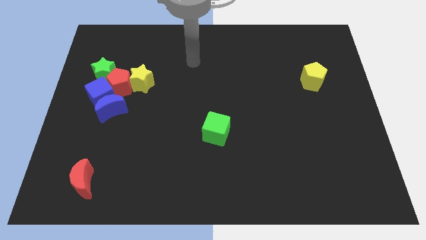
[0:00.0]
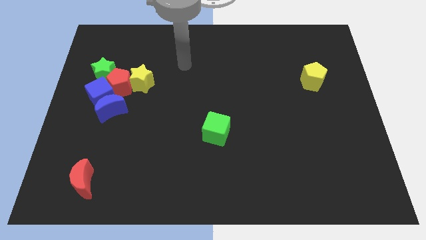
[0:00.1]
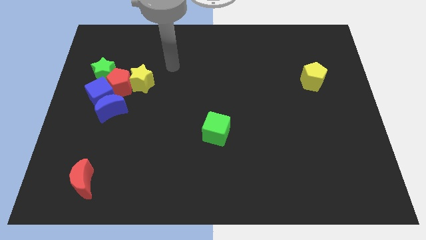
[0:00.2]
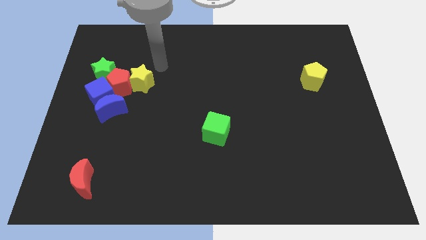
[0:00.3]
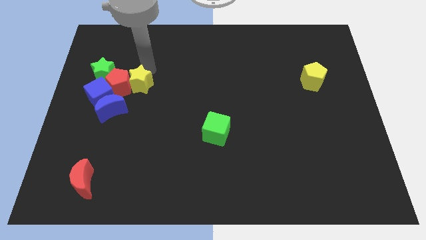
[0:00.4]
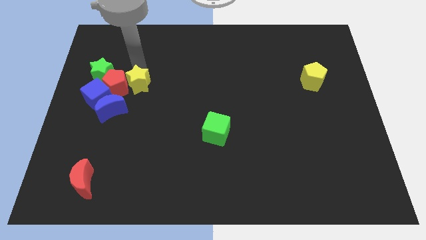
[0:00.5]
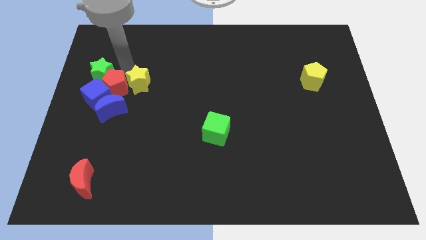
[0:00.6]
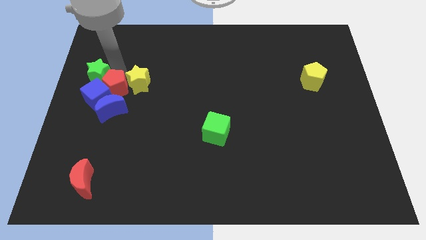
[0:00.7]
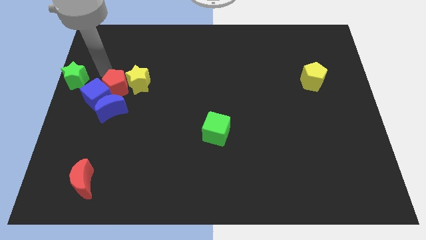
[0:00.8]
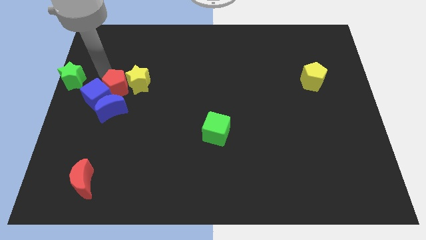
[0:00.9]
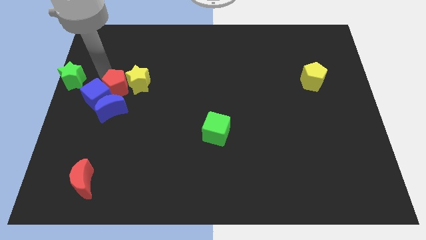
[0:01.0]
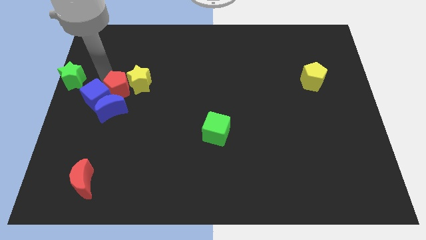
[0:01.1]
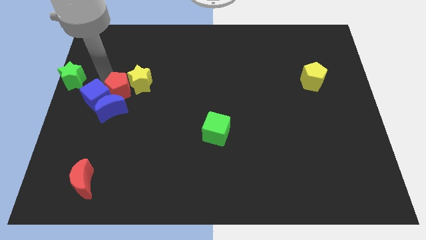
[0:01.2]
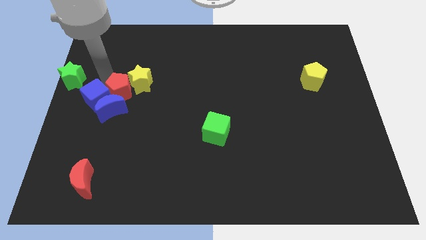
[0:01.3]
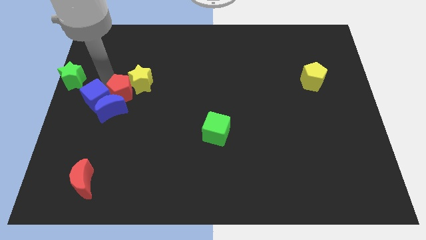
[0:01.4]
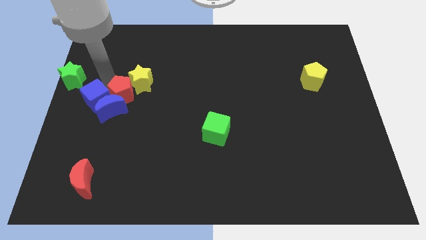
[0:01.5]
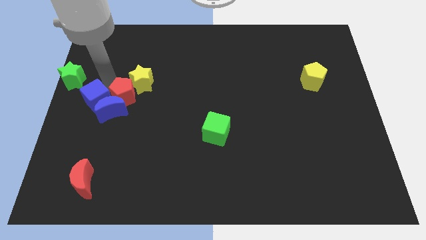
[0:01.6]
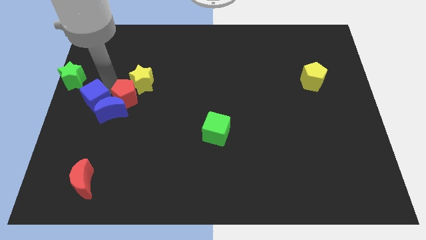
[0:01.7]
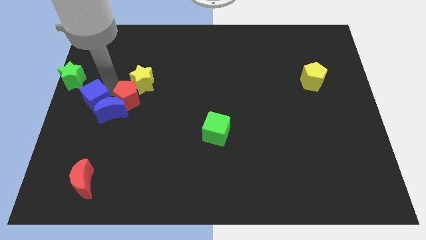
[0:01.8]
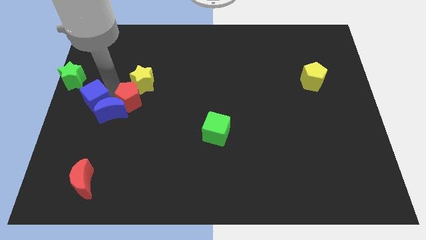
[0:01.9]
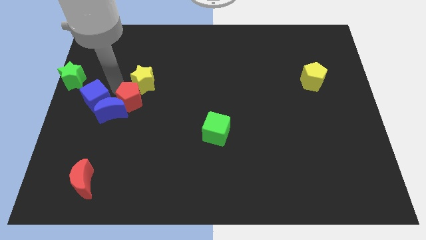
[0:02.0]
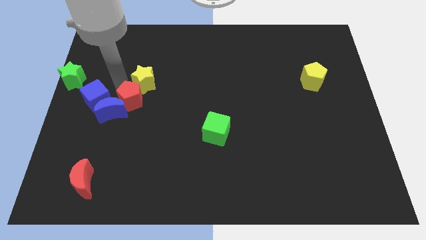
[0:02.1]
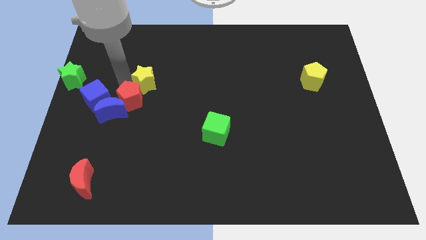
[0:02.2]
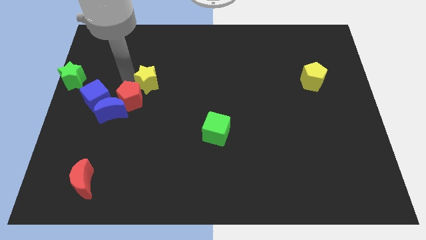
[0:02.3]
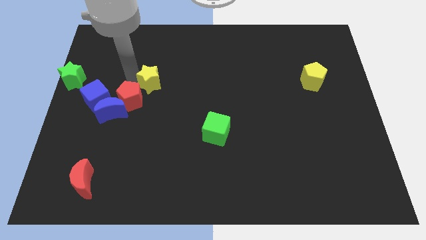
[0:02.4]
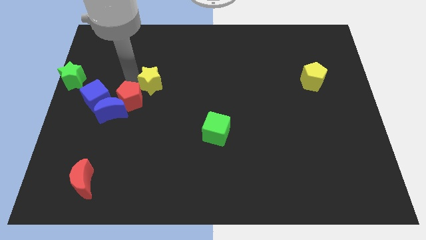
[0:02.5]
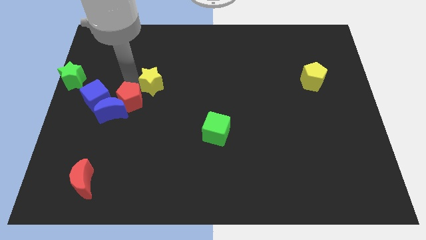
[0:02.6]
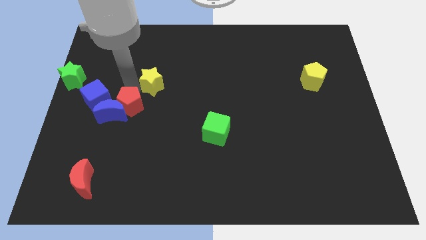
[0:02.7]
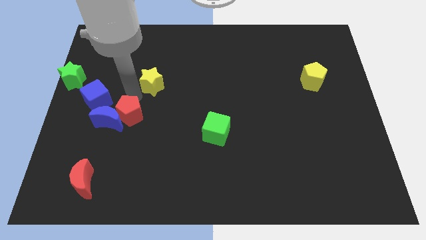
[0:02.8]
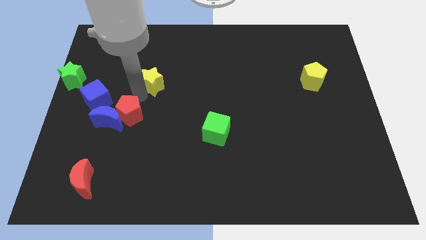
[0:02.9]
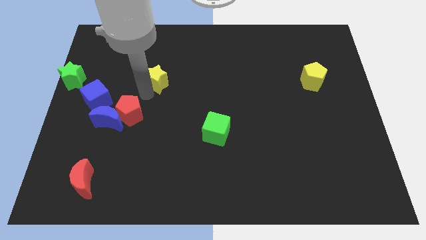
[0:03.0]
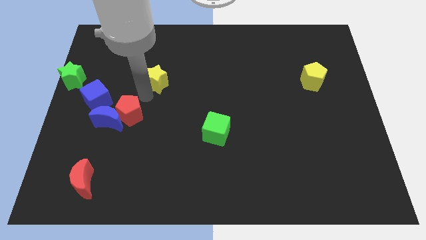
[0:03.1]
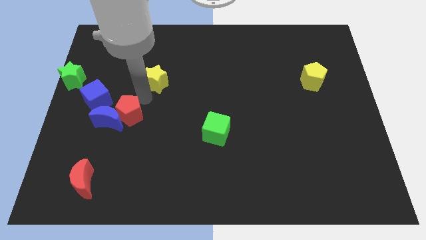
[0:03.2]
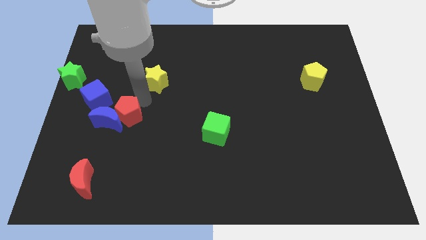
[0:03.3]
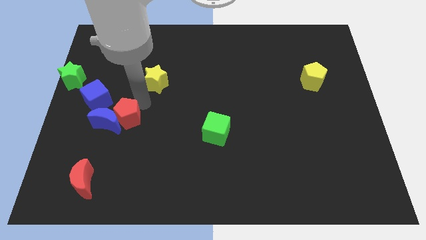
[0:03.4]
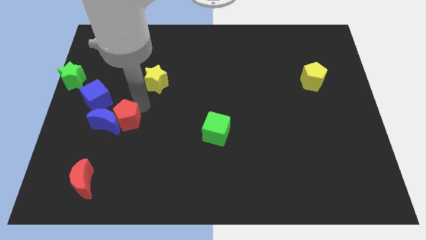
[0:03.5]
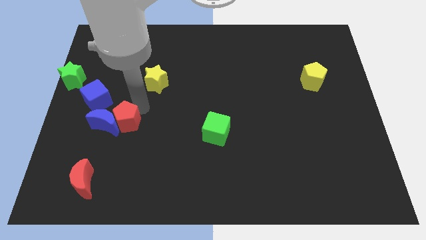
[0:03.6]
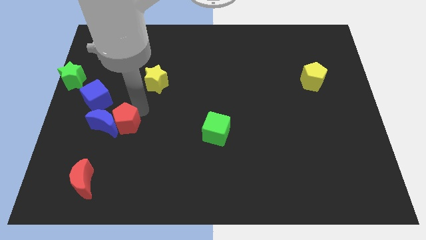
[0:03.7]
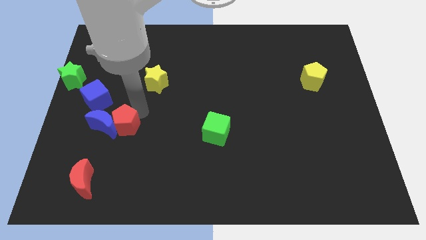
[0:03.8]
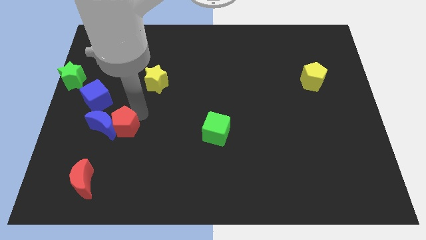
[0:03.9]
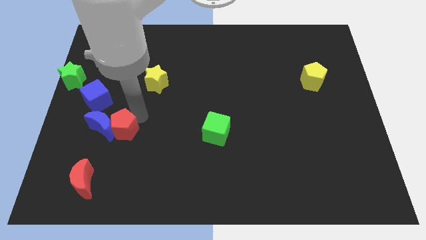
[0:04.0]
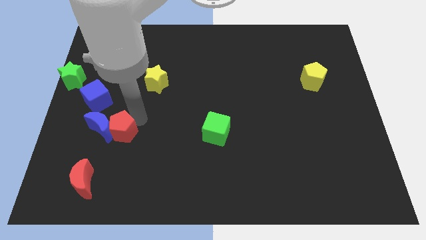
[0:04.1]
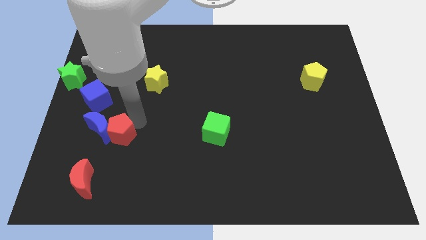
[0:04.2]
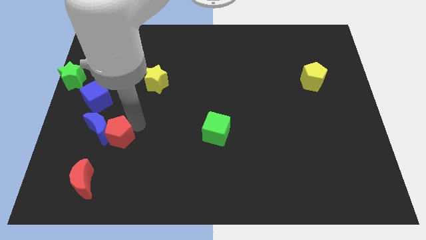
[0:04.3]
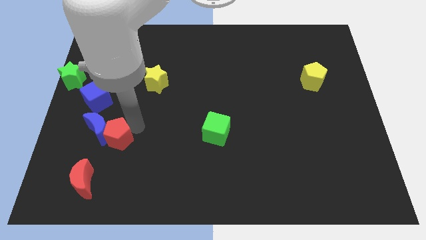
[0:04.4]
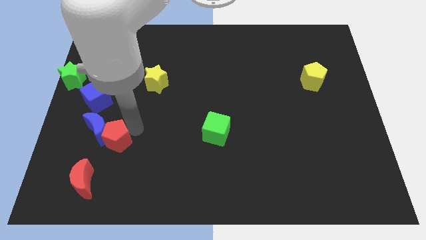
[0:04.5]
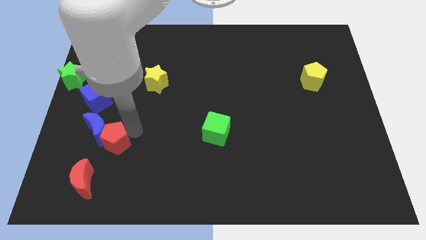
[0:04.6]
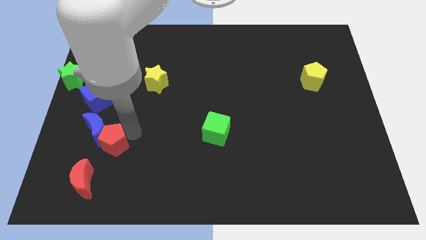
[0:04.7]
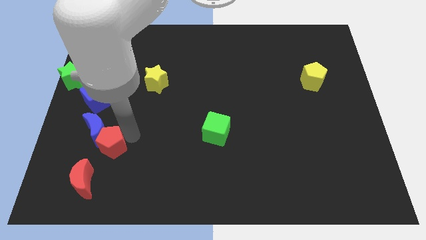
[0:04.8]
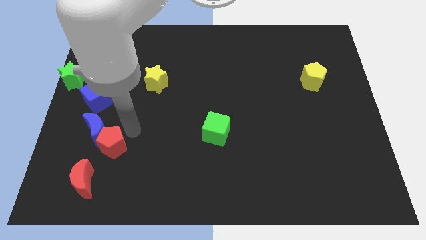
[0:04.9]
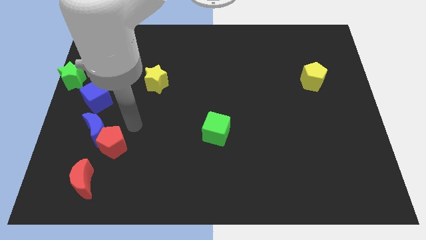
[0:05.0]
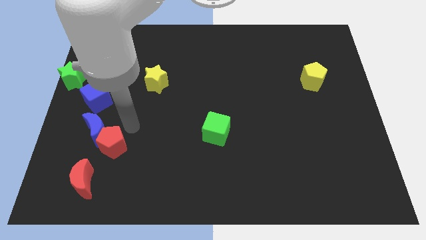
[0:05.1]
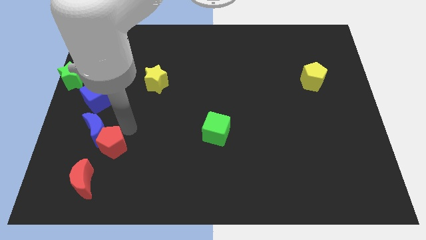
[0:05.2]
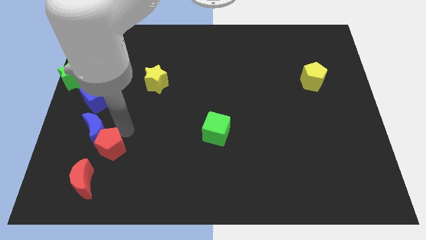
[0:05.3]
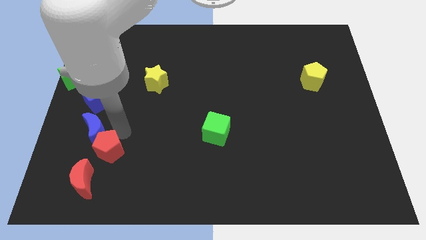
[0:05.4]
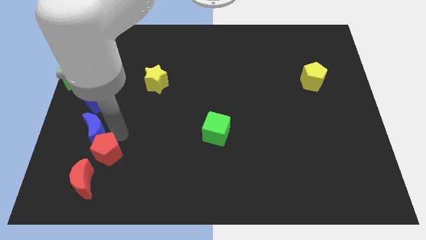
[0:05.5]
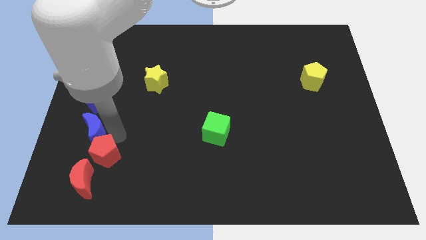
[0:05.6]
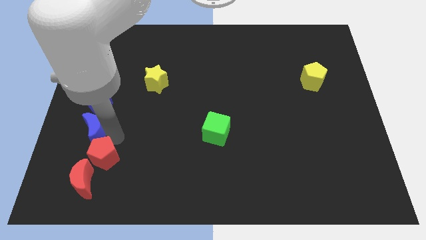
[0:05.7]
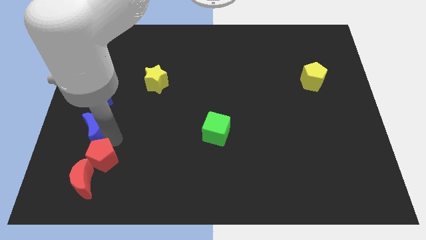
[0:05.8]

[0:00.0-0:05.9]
put the red pentagon next to the red moon

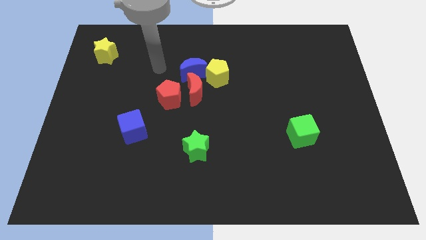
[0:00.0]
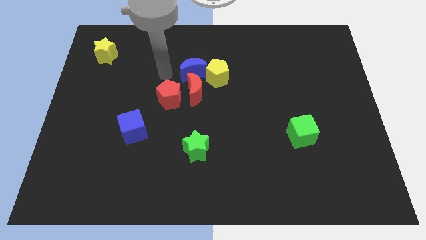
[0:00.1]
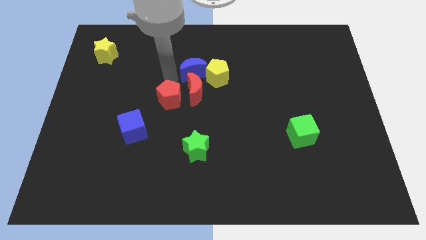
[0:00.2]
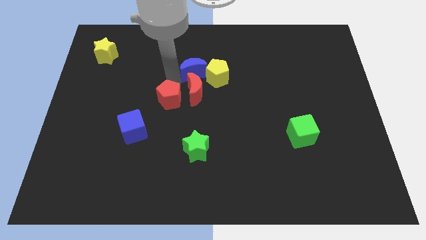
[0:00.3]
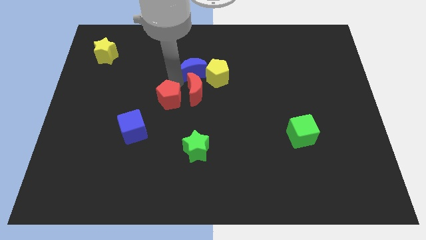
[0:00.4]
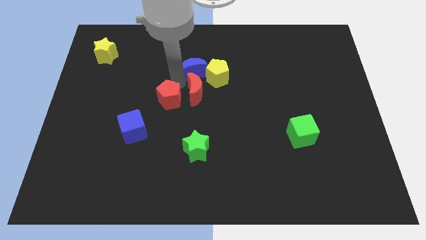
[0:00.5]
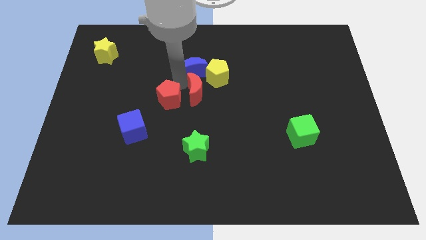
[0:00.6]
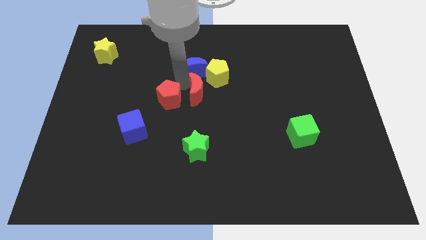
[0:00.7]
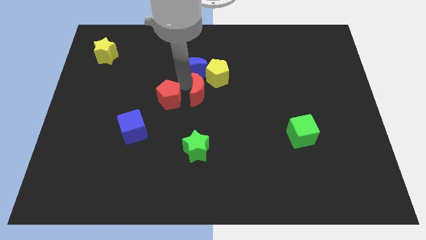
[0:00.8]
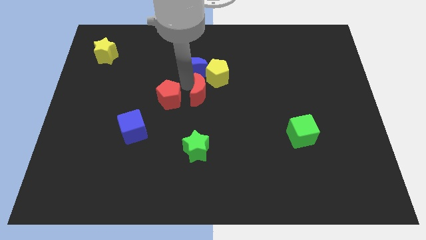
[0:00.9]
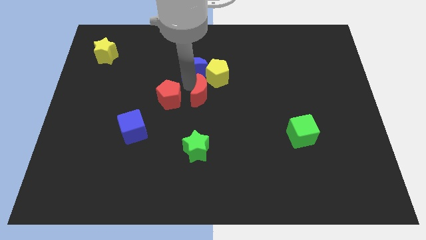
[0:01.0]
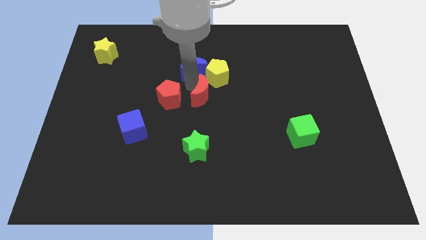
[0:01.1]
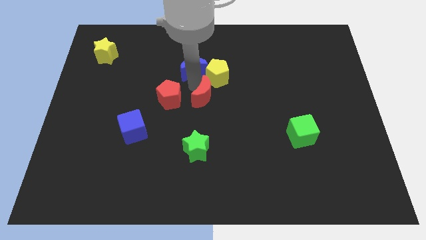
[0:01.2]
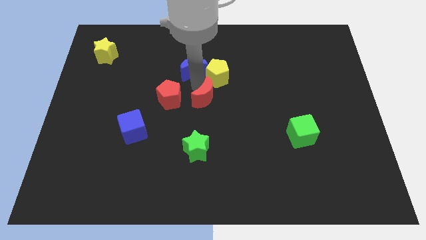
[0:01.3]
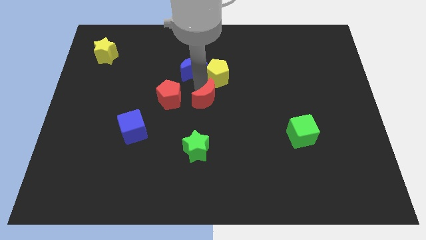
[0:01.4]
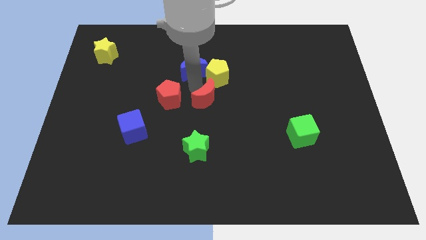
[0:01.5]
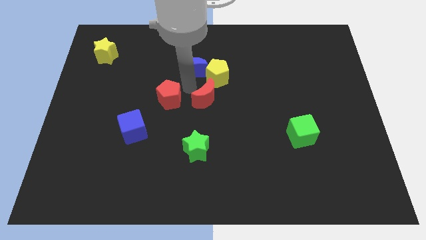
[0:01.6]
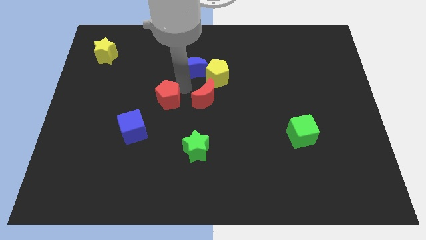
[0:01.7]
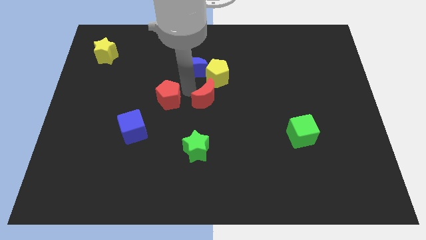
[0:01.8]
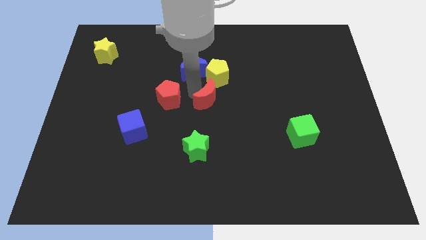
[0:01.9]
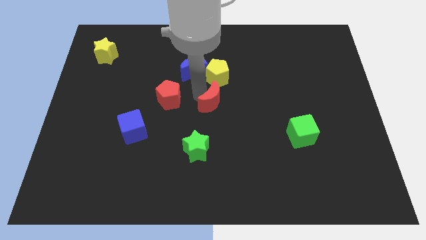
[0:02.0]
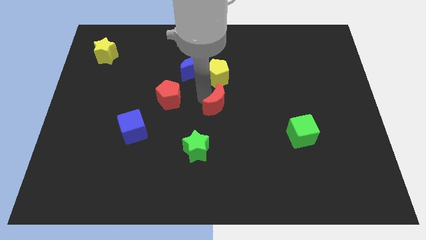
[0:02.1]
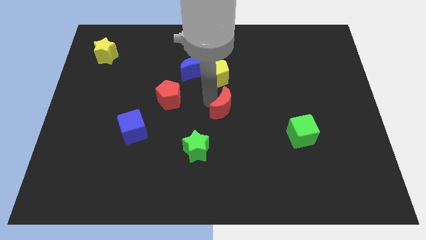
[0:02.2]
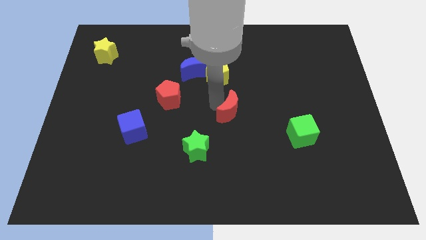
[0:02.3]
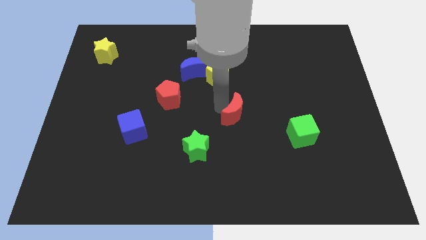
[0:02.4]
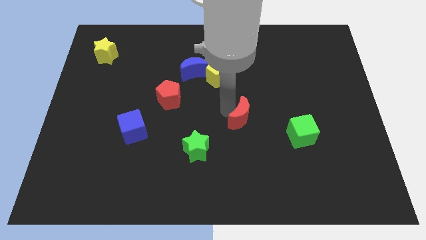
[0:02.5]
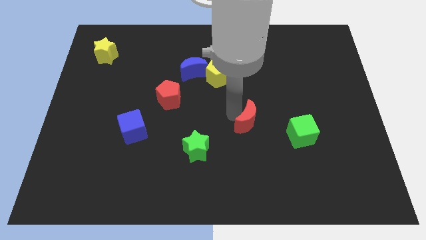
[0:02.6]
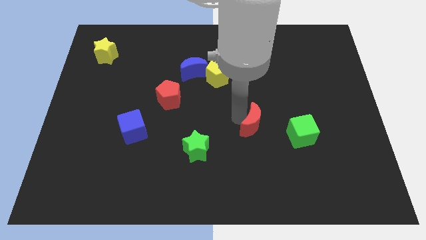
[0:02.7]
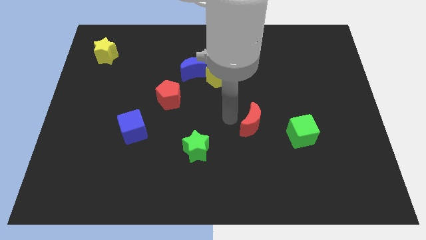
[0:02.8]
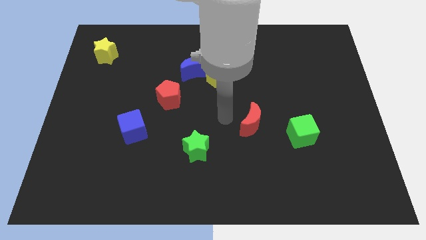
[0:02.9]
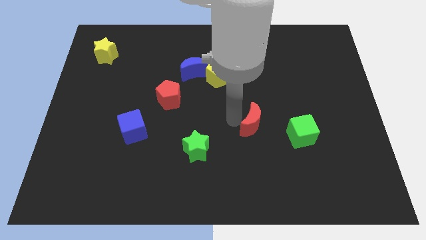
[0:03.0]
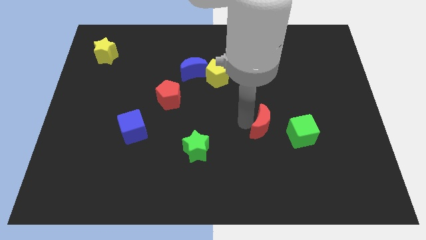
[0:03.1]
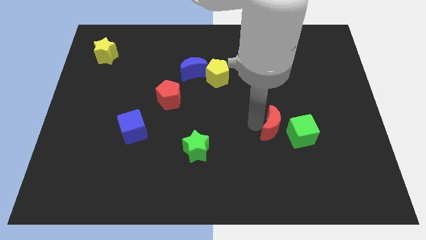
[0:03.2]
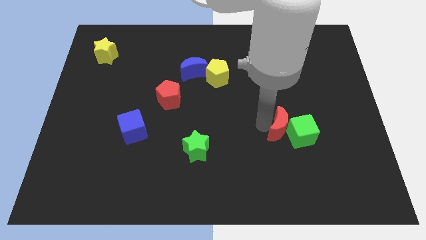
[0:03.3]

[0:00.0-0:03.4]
push the red moon to the green cube
